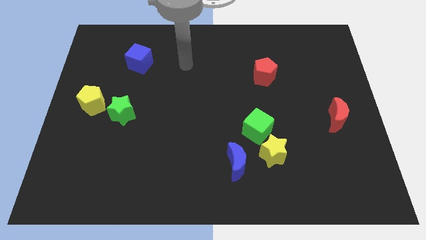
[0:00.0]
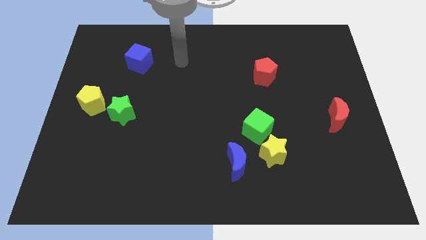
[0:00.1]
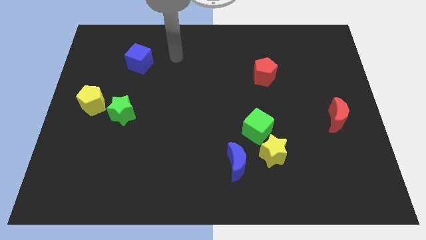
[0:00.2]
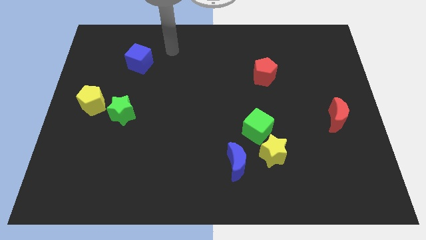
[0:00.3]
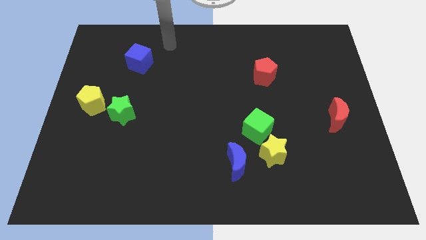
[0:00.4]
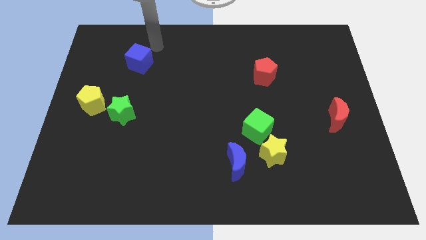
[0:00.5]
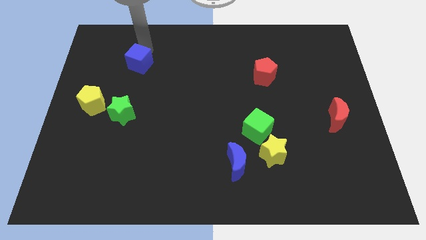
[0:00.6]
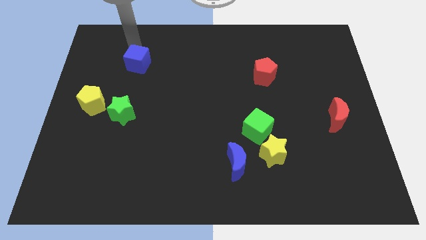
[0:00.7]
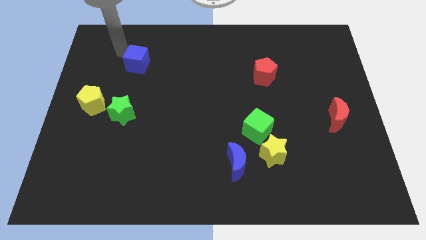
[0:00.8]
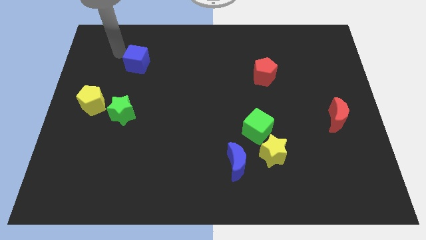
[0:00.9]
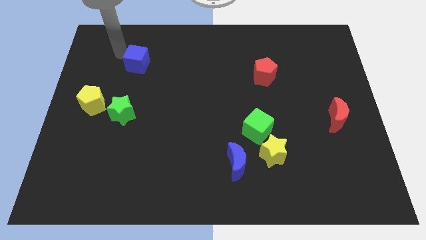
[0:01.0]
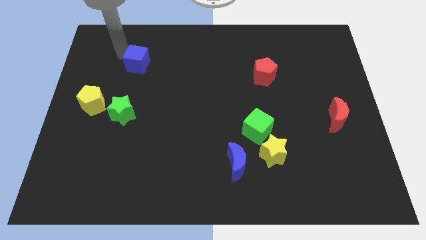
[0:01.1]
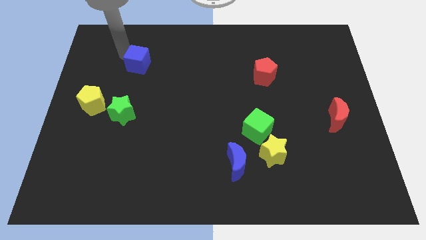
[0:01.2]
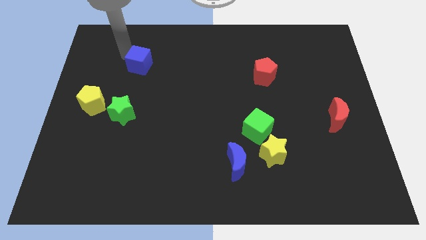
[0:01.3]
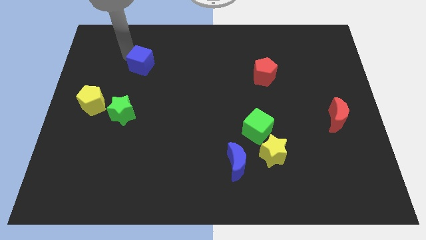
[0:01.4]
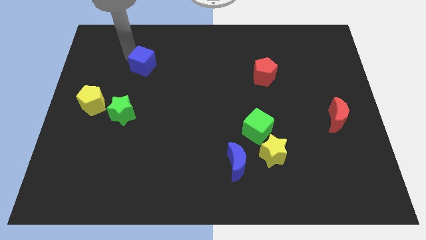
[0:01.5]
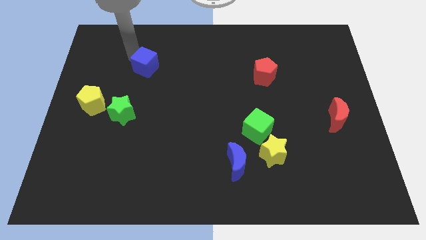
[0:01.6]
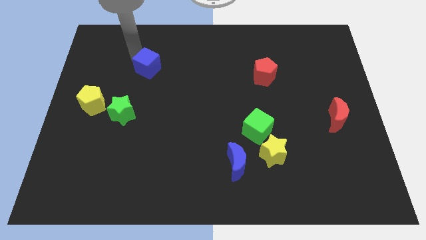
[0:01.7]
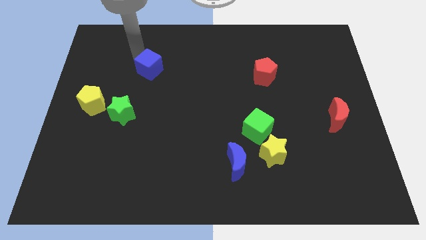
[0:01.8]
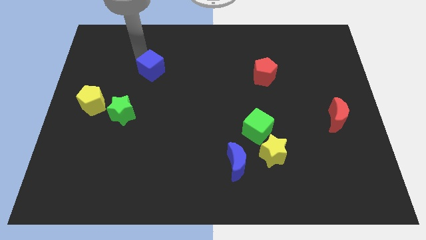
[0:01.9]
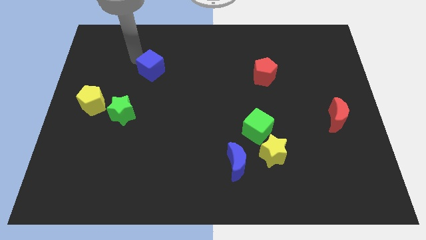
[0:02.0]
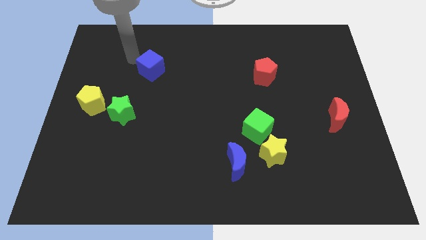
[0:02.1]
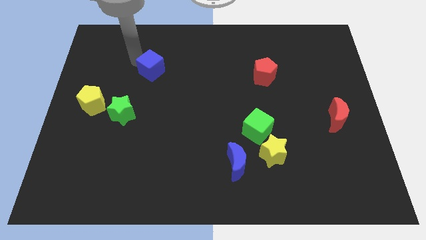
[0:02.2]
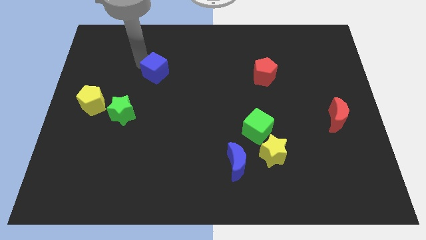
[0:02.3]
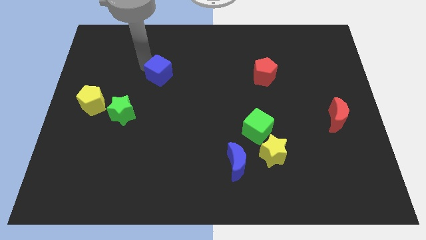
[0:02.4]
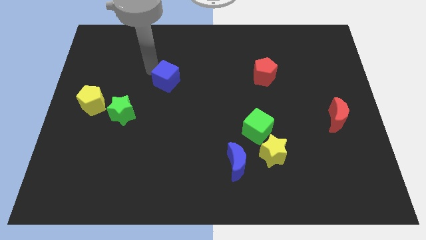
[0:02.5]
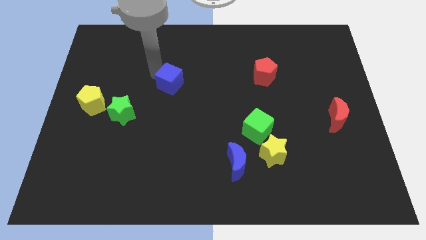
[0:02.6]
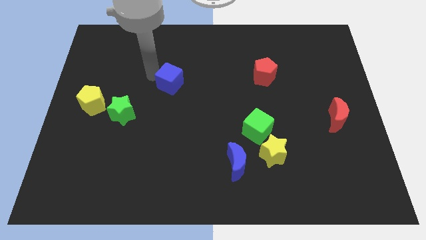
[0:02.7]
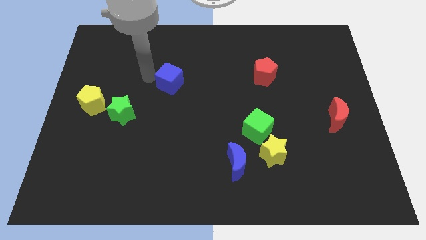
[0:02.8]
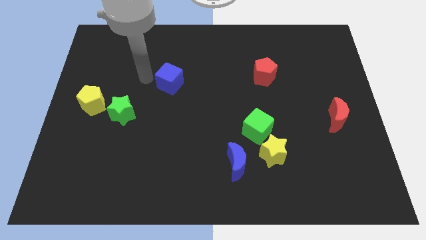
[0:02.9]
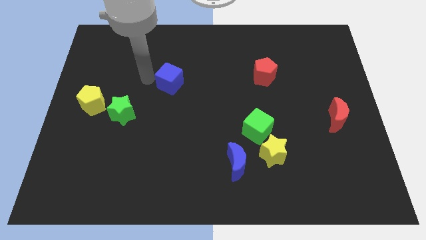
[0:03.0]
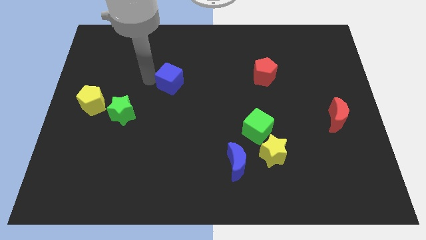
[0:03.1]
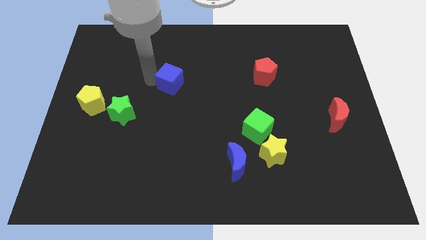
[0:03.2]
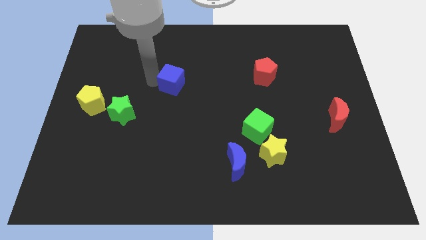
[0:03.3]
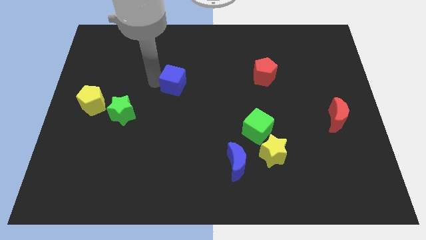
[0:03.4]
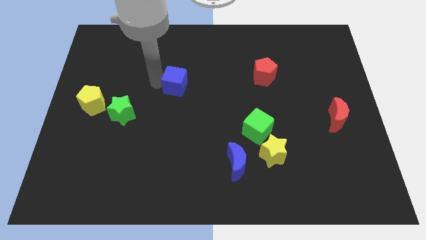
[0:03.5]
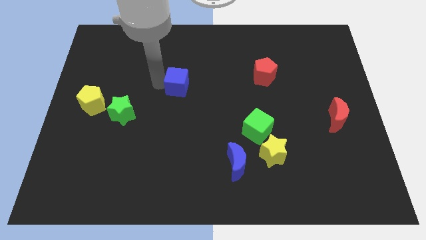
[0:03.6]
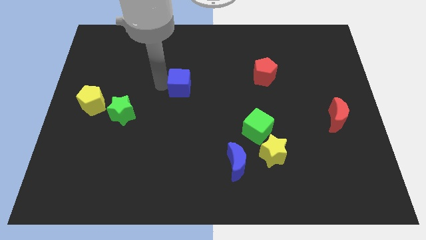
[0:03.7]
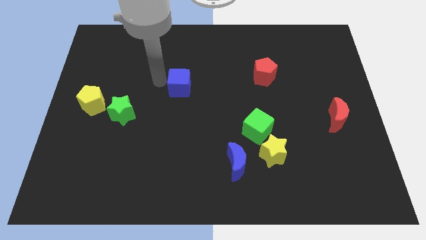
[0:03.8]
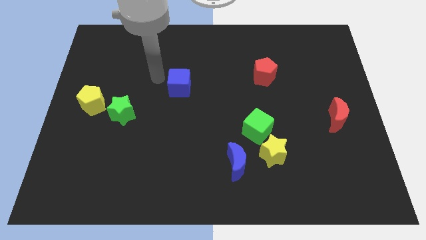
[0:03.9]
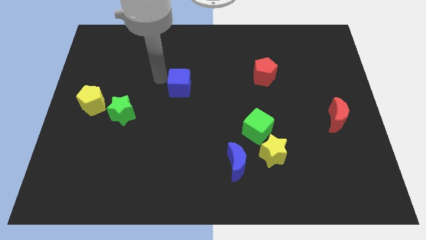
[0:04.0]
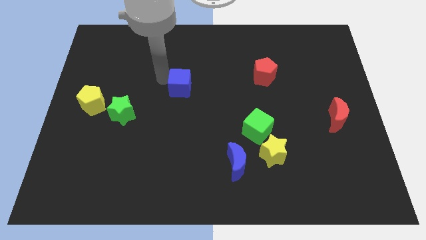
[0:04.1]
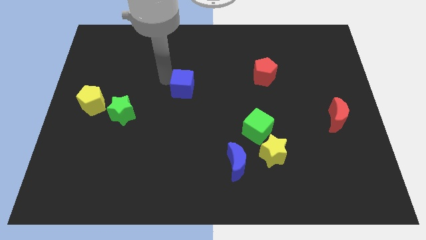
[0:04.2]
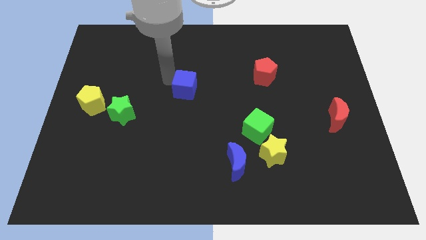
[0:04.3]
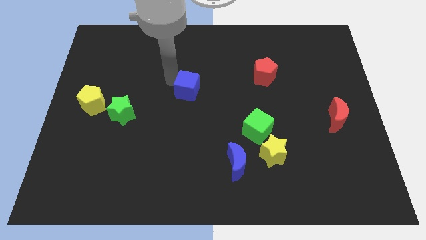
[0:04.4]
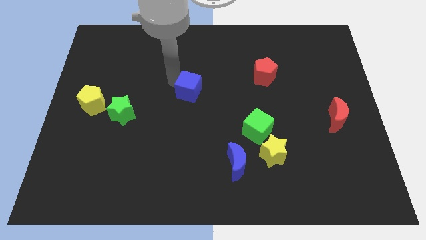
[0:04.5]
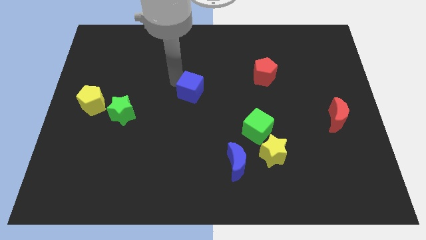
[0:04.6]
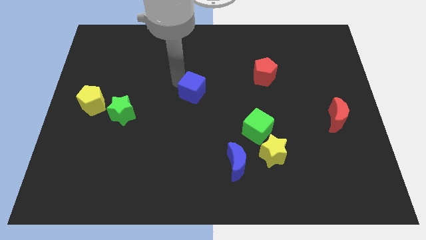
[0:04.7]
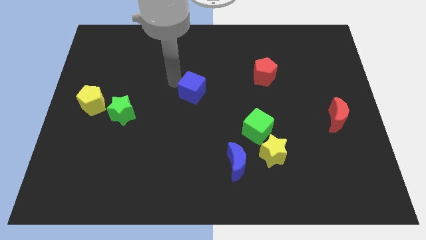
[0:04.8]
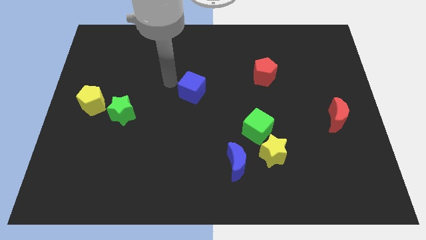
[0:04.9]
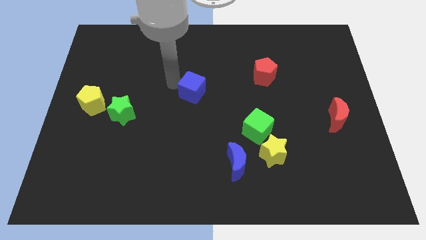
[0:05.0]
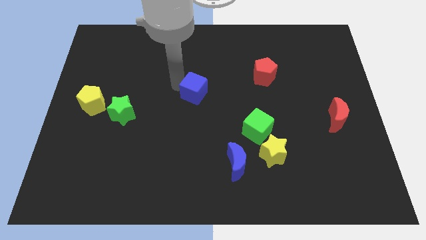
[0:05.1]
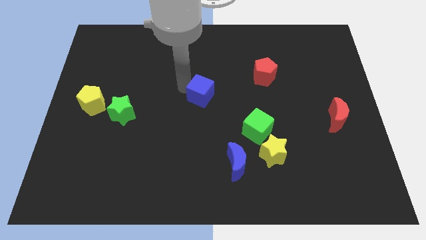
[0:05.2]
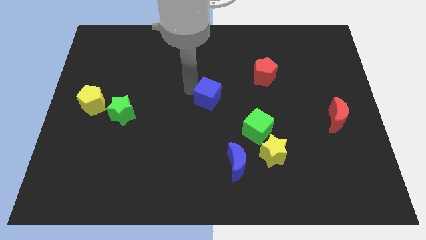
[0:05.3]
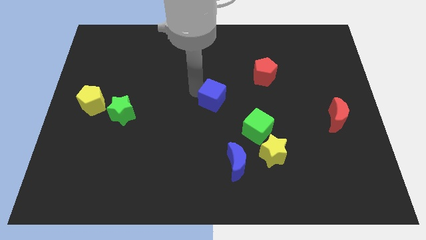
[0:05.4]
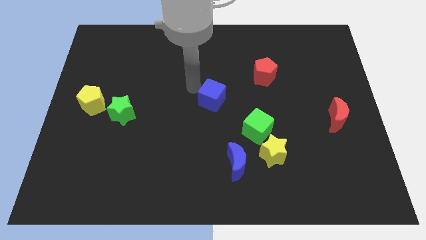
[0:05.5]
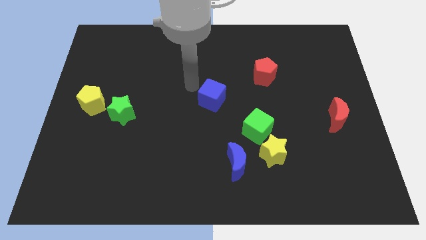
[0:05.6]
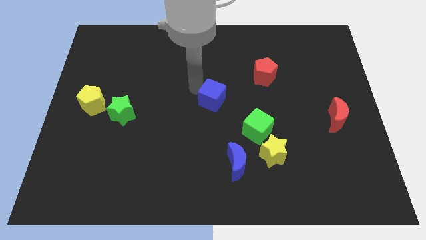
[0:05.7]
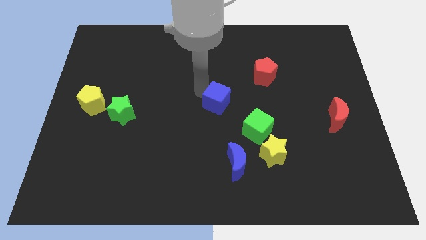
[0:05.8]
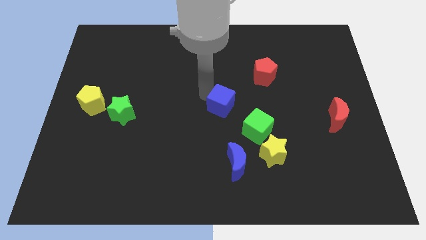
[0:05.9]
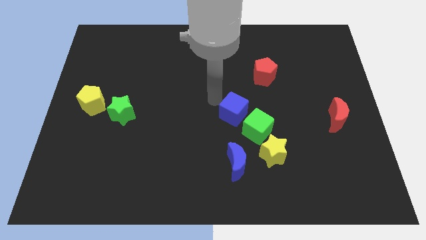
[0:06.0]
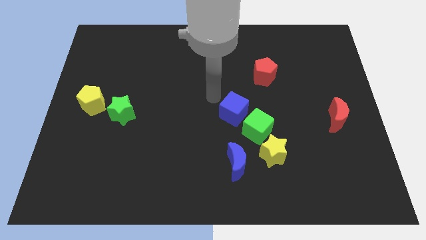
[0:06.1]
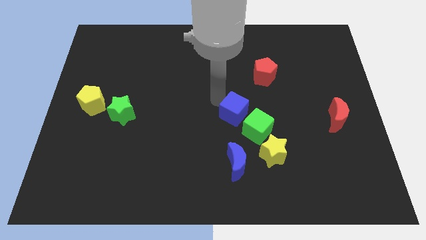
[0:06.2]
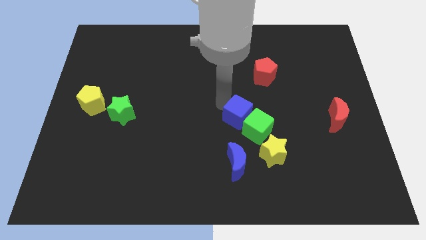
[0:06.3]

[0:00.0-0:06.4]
slide the blue cube towards the green cube

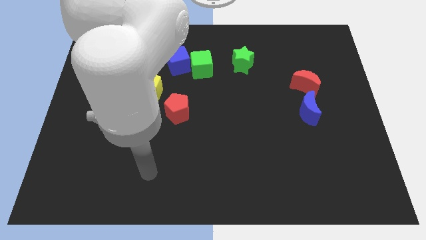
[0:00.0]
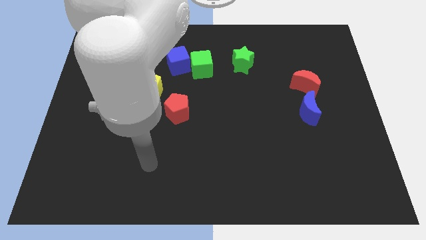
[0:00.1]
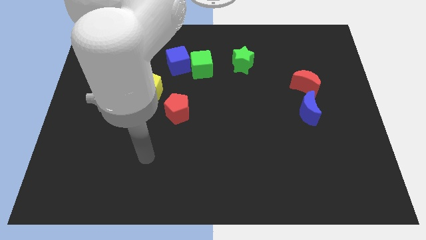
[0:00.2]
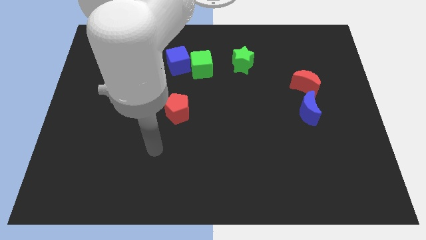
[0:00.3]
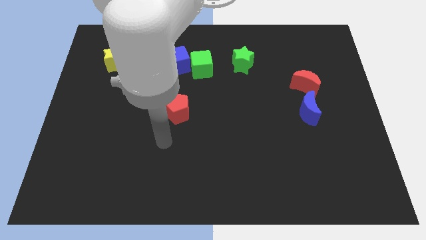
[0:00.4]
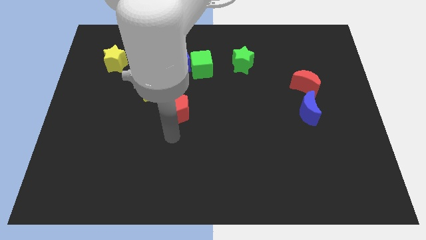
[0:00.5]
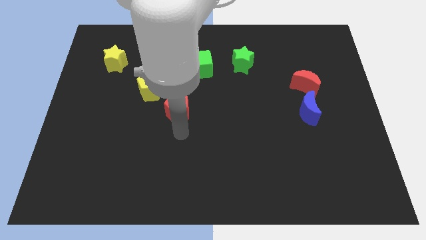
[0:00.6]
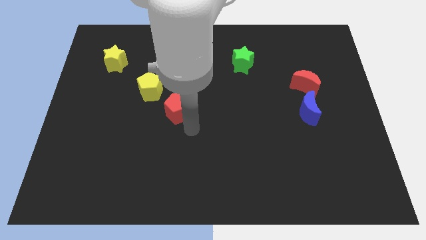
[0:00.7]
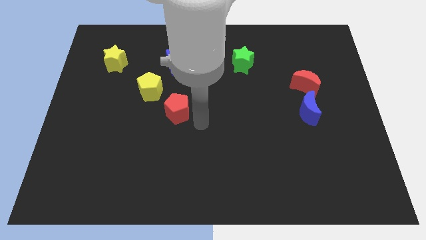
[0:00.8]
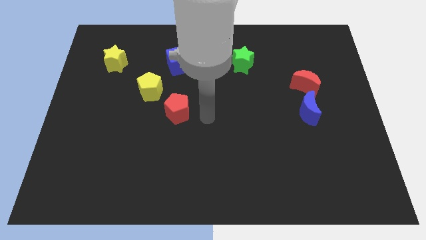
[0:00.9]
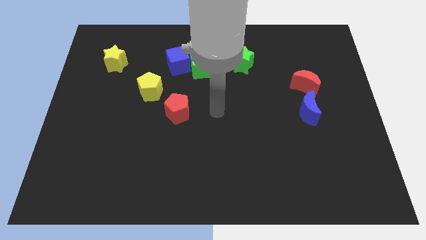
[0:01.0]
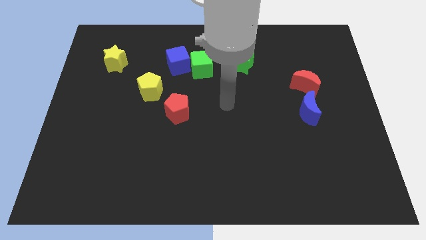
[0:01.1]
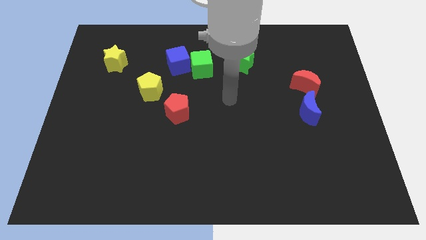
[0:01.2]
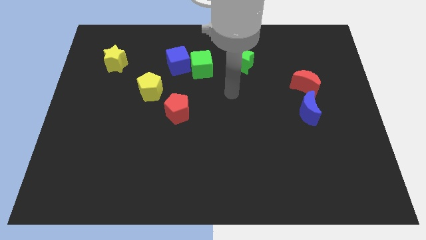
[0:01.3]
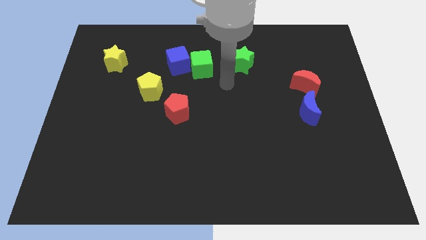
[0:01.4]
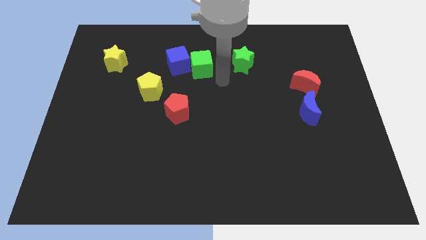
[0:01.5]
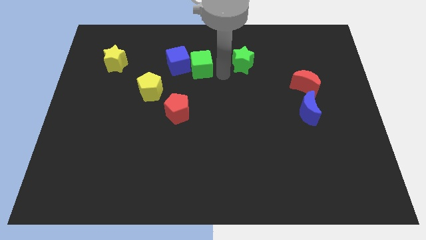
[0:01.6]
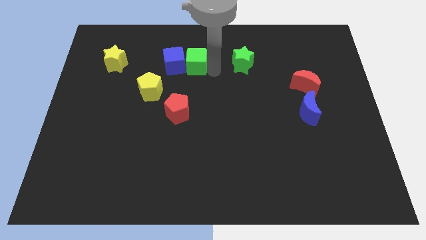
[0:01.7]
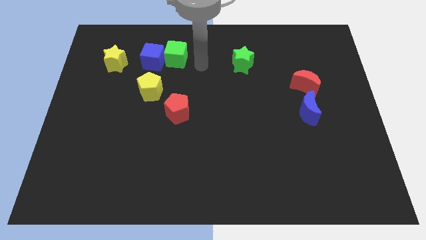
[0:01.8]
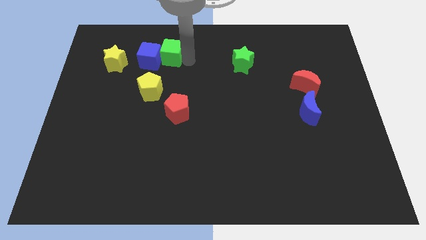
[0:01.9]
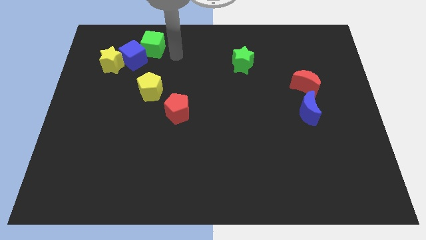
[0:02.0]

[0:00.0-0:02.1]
push the blue cube towards the yellow star
